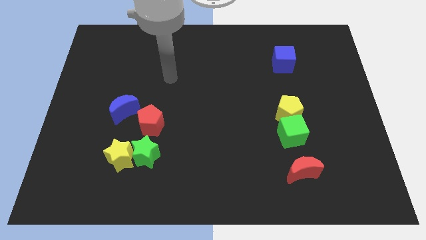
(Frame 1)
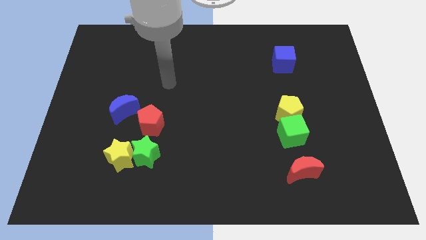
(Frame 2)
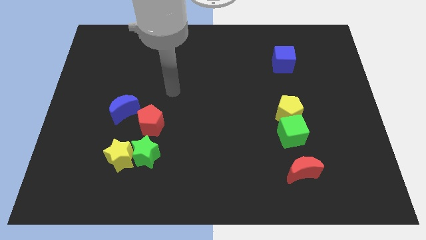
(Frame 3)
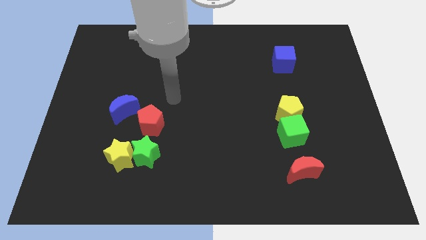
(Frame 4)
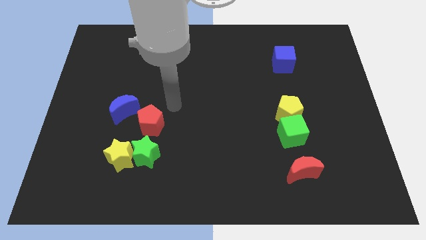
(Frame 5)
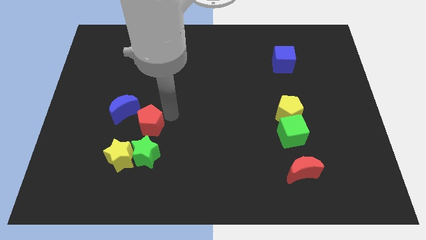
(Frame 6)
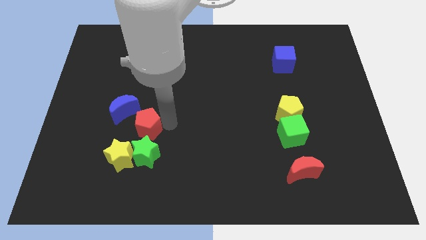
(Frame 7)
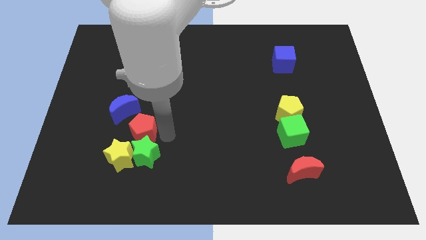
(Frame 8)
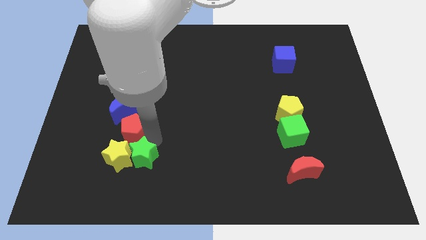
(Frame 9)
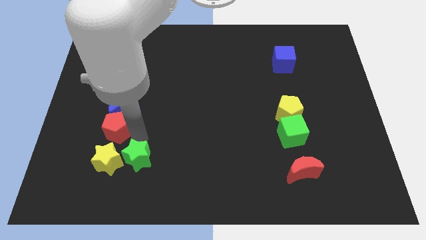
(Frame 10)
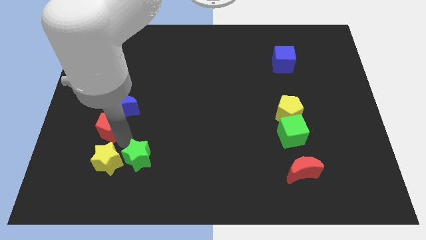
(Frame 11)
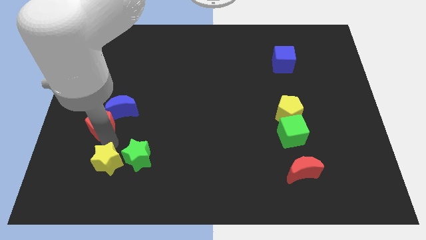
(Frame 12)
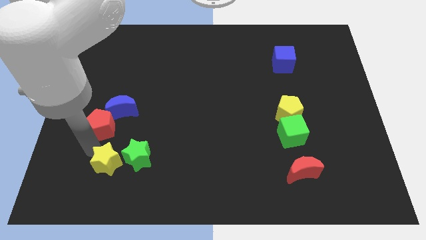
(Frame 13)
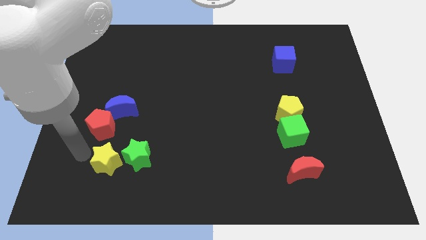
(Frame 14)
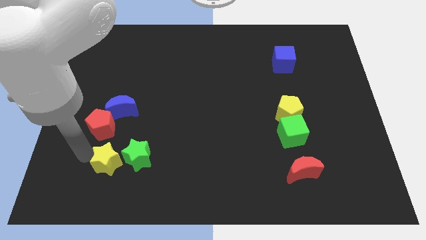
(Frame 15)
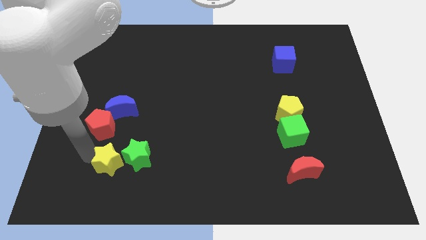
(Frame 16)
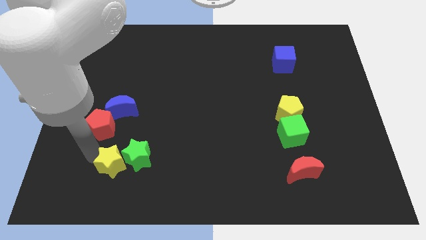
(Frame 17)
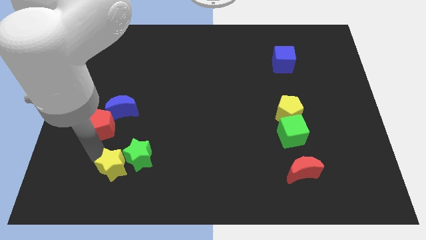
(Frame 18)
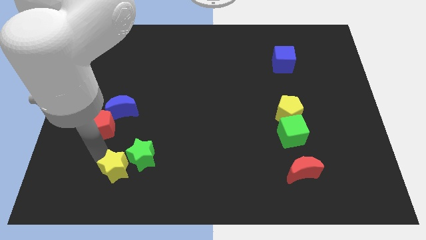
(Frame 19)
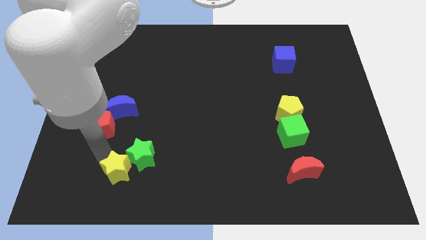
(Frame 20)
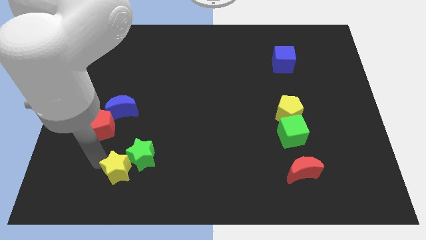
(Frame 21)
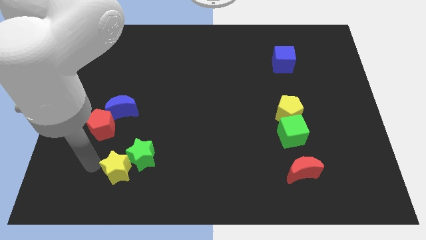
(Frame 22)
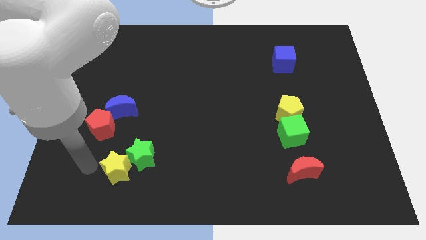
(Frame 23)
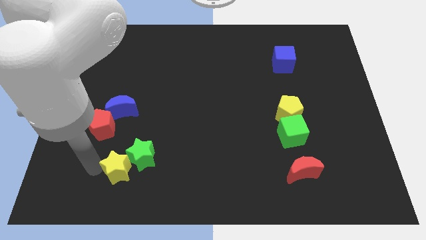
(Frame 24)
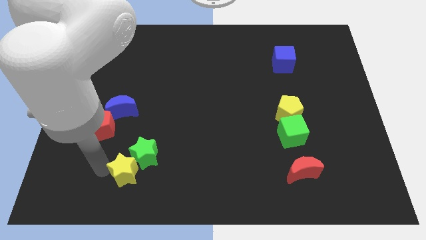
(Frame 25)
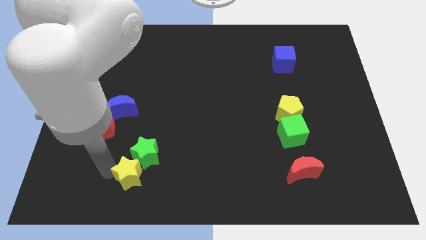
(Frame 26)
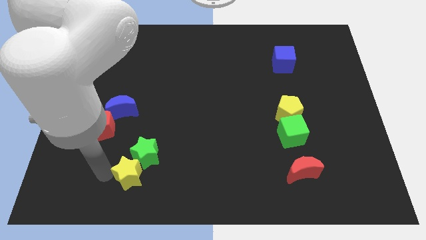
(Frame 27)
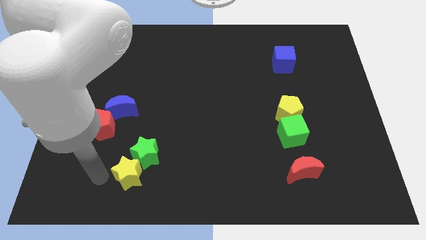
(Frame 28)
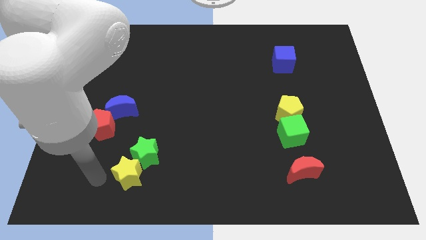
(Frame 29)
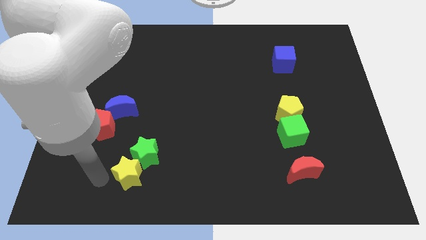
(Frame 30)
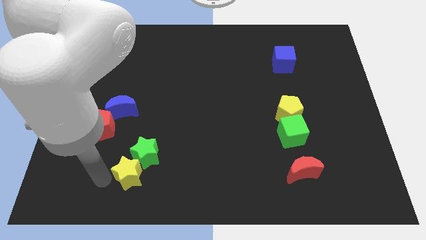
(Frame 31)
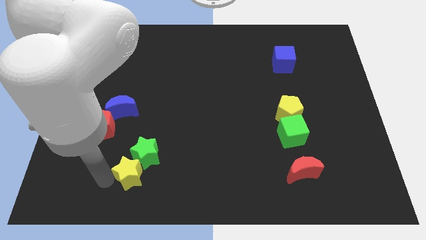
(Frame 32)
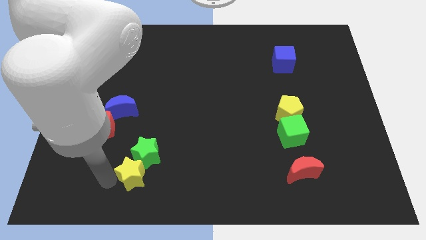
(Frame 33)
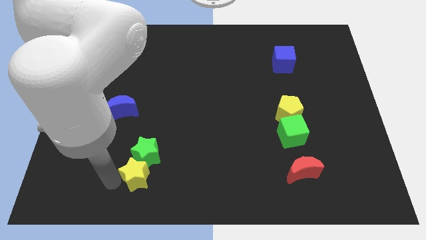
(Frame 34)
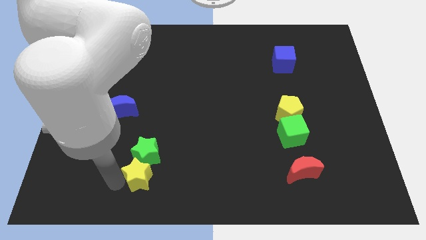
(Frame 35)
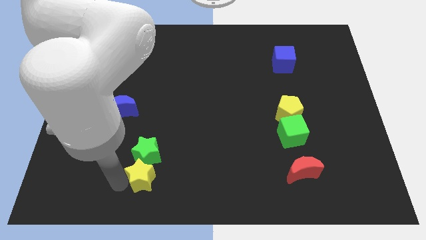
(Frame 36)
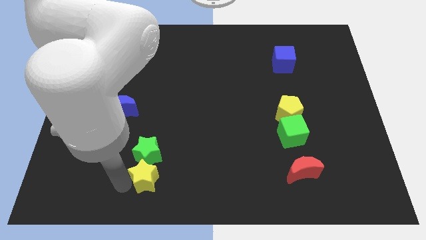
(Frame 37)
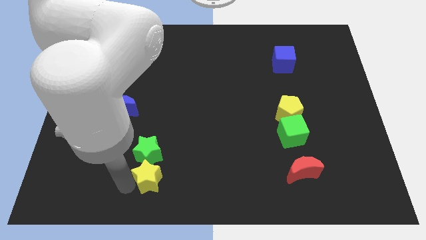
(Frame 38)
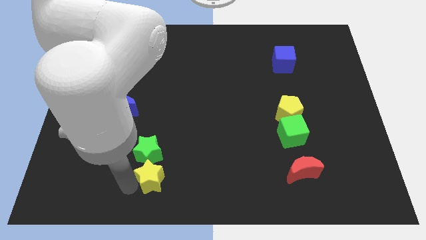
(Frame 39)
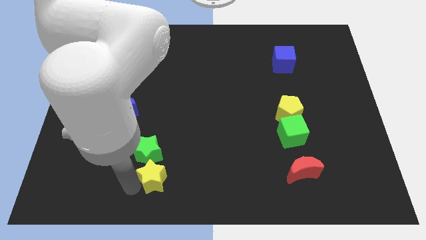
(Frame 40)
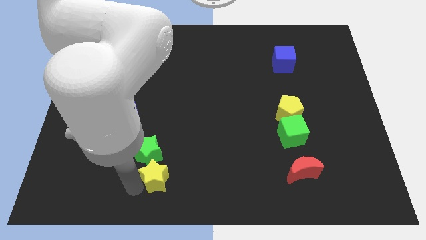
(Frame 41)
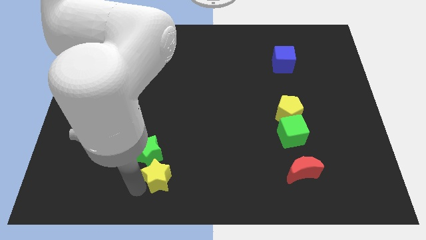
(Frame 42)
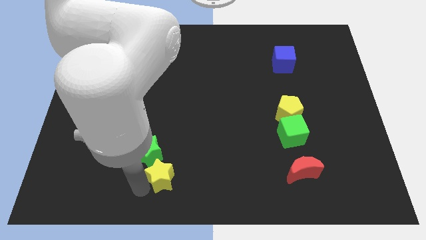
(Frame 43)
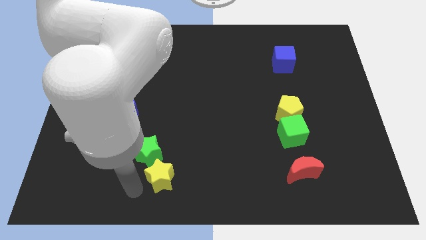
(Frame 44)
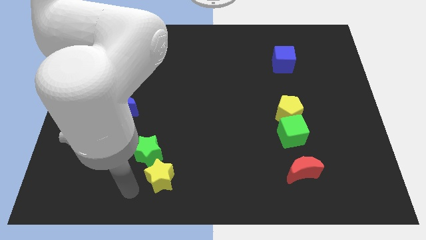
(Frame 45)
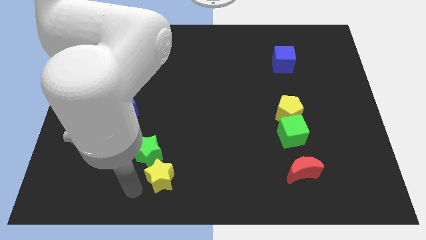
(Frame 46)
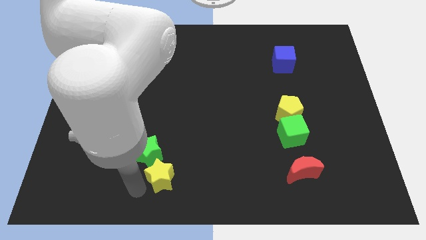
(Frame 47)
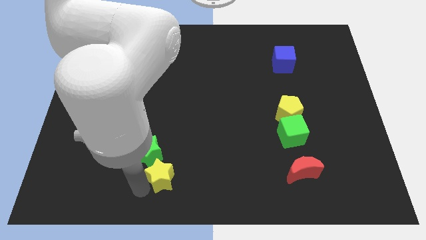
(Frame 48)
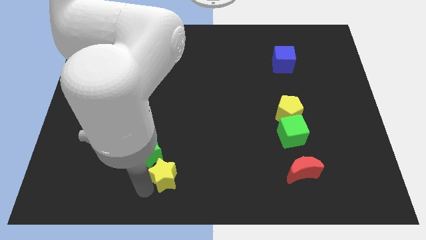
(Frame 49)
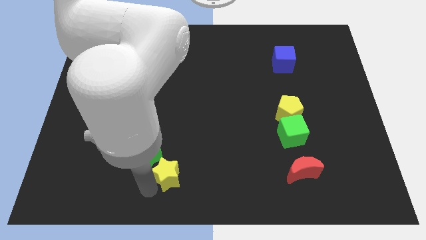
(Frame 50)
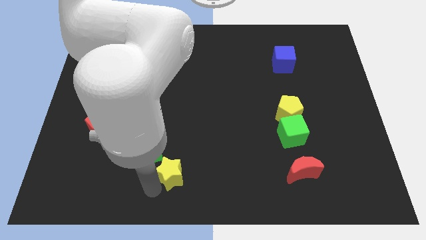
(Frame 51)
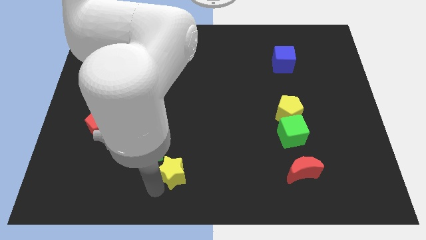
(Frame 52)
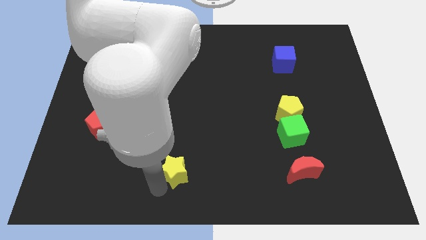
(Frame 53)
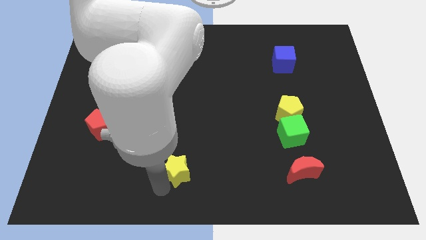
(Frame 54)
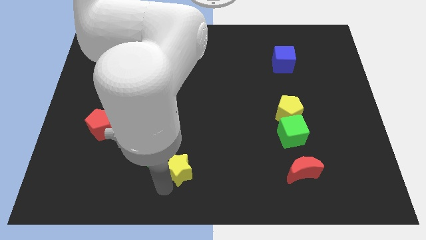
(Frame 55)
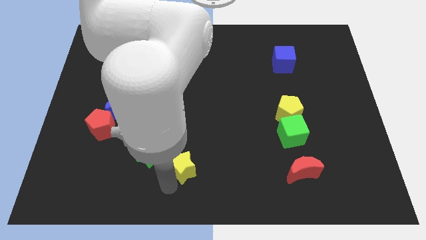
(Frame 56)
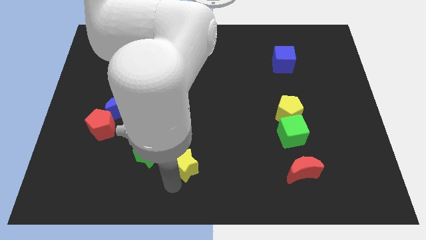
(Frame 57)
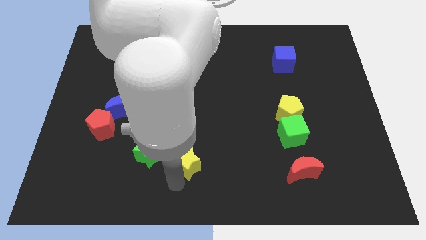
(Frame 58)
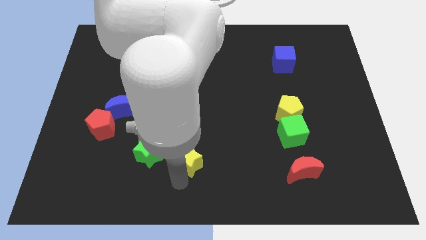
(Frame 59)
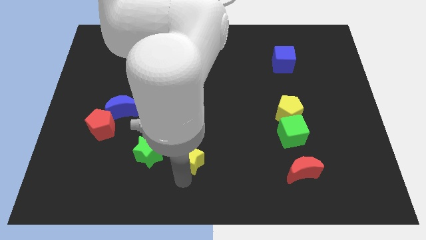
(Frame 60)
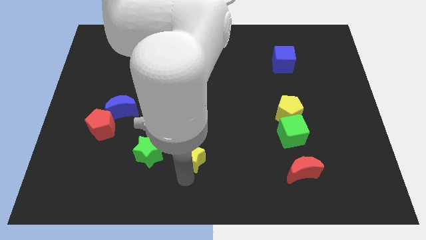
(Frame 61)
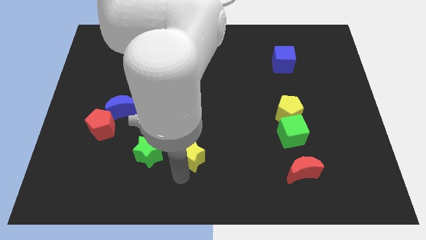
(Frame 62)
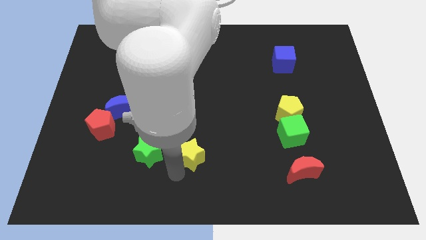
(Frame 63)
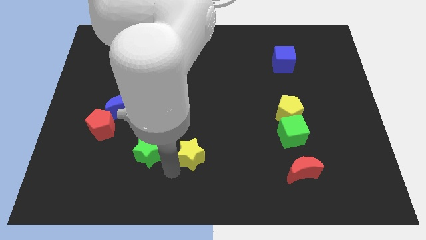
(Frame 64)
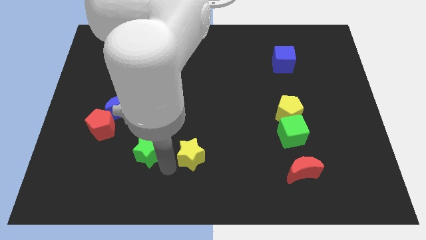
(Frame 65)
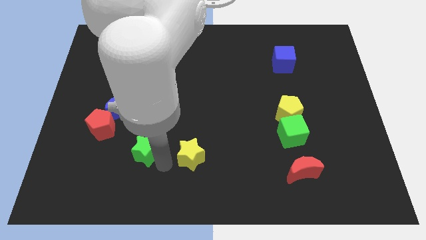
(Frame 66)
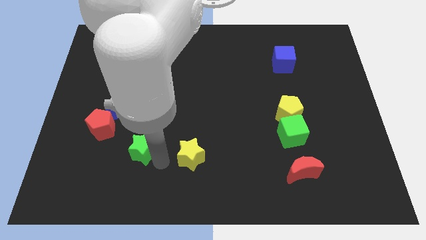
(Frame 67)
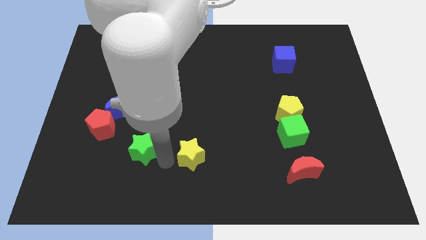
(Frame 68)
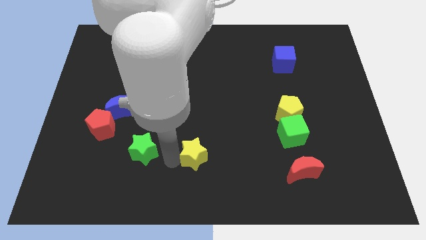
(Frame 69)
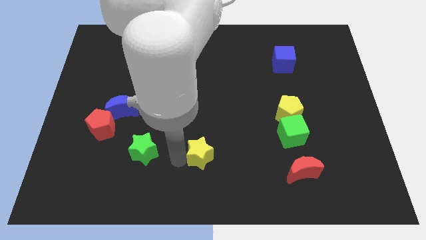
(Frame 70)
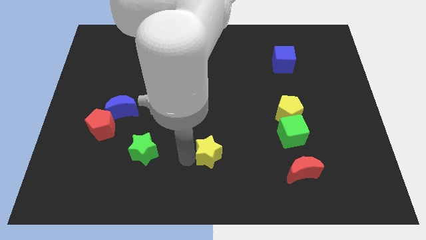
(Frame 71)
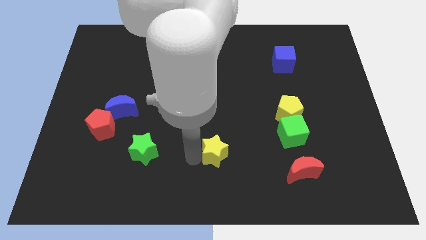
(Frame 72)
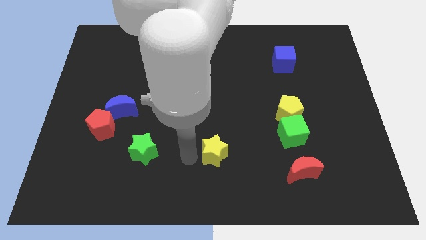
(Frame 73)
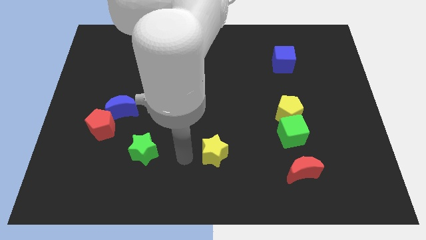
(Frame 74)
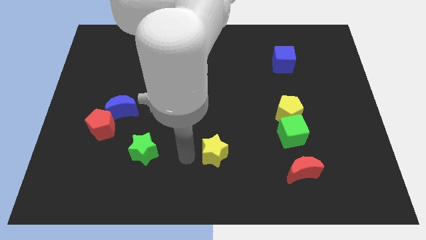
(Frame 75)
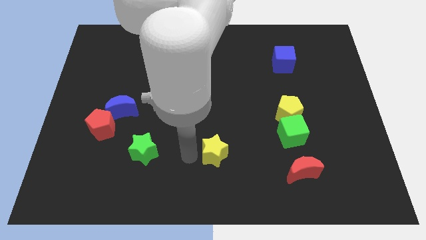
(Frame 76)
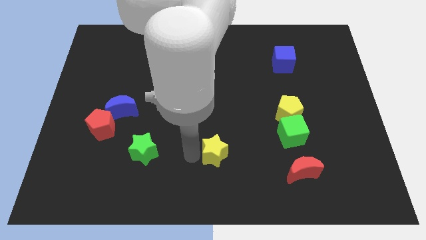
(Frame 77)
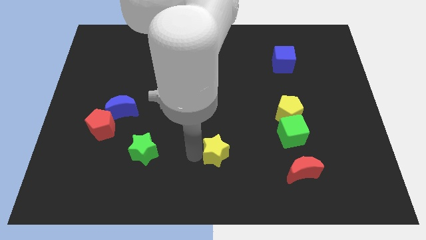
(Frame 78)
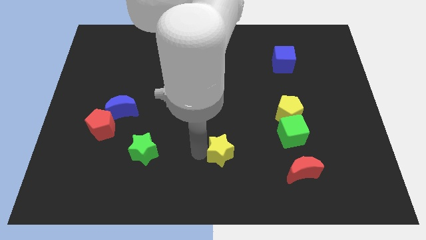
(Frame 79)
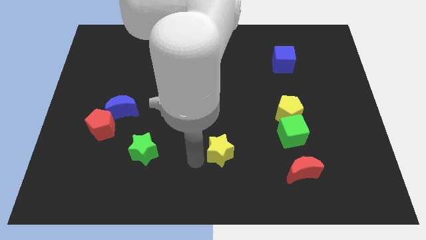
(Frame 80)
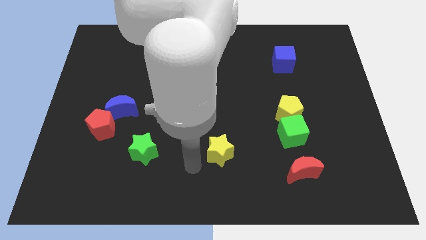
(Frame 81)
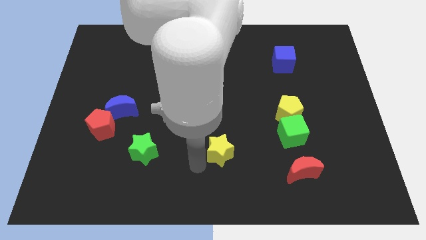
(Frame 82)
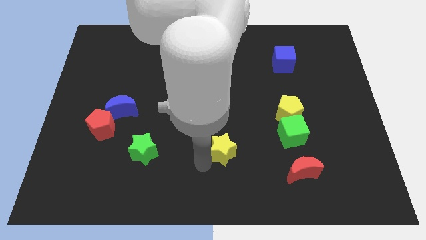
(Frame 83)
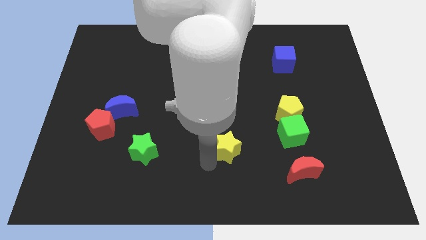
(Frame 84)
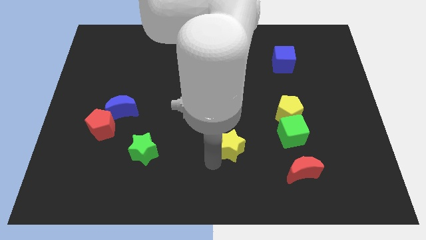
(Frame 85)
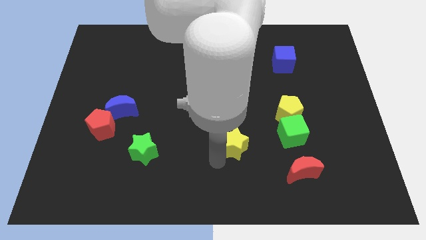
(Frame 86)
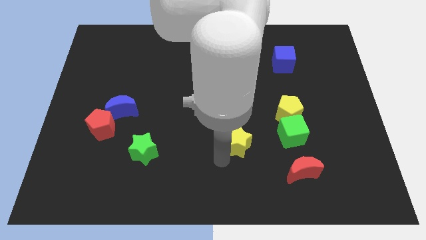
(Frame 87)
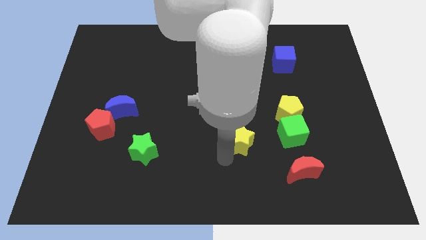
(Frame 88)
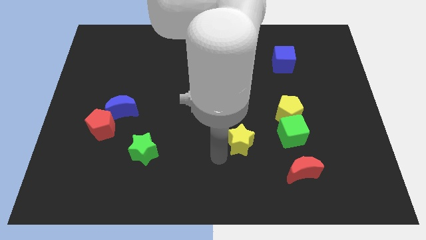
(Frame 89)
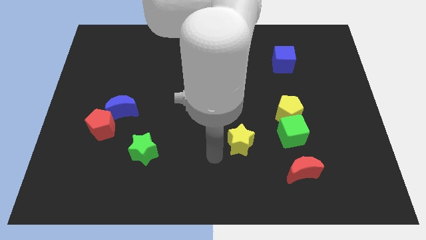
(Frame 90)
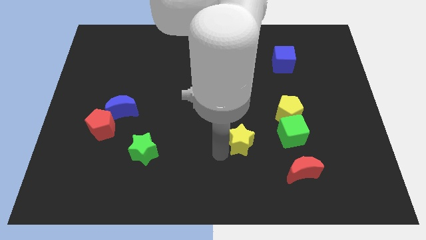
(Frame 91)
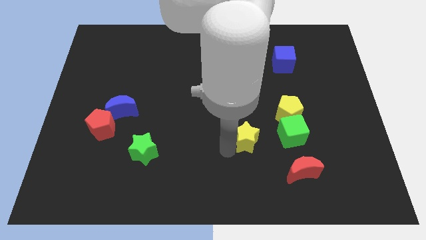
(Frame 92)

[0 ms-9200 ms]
move the yellow star to the bottom left side of the yellow pentagon
